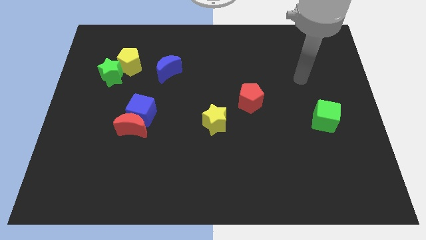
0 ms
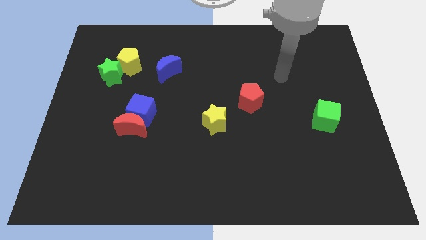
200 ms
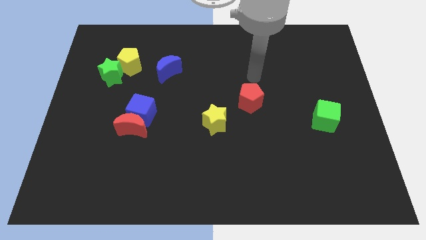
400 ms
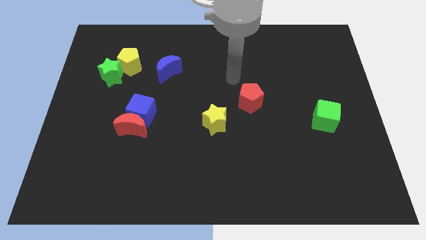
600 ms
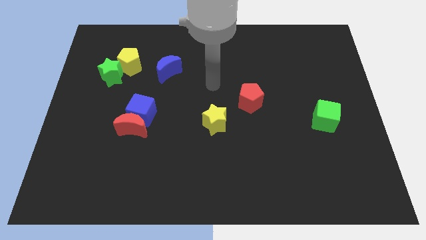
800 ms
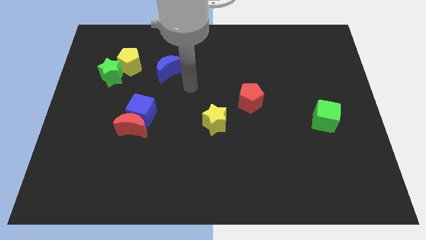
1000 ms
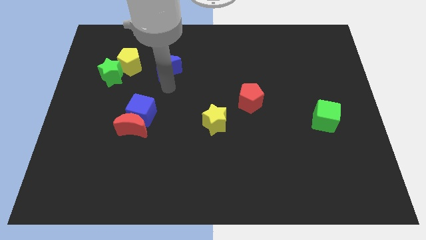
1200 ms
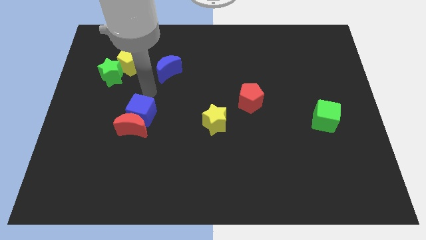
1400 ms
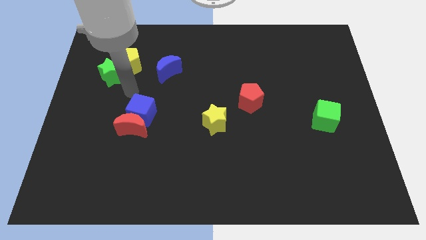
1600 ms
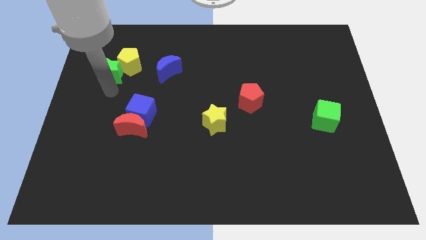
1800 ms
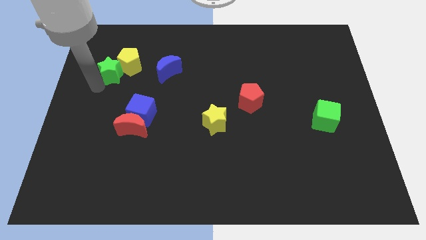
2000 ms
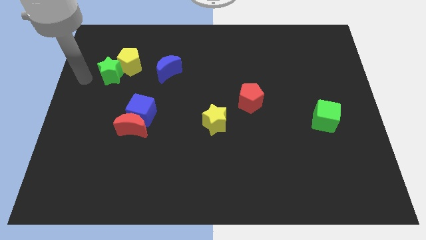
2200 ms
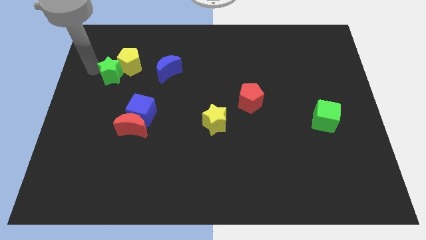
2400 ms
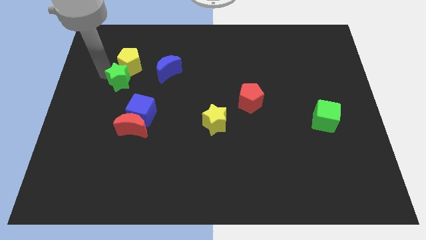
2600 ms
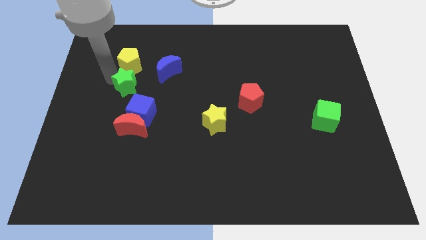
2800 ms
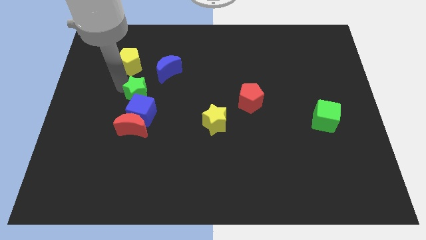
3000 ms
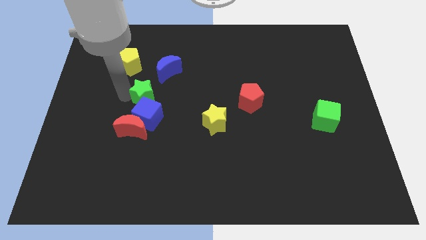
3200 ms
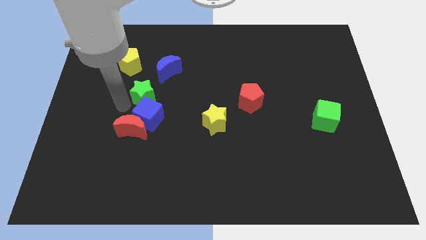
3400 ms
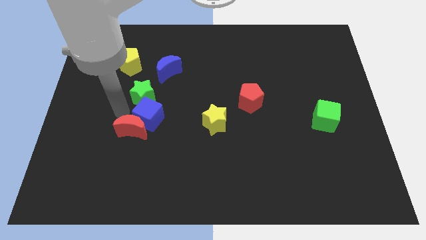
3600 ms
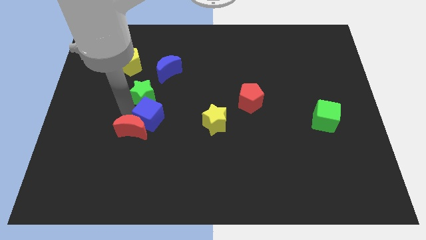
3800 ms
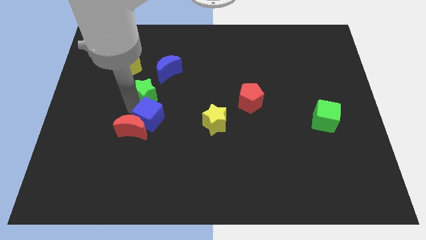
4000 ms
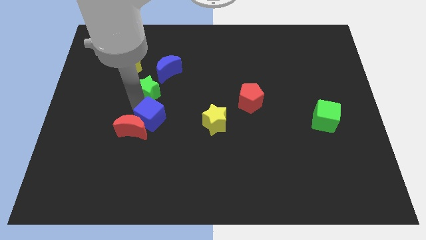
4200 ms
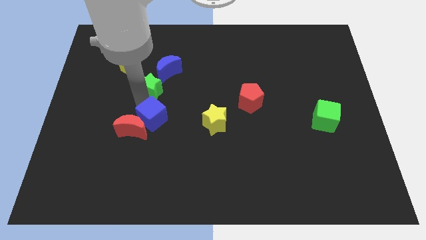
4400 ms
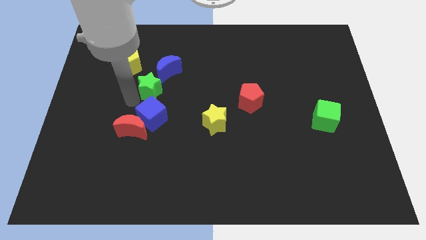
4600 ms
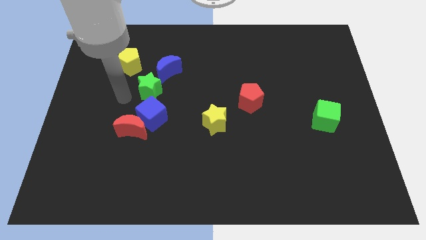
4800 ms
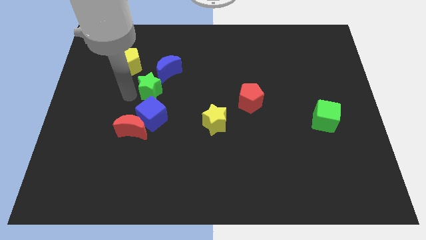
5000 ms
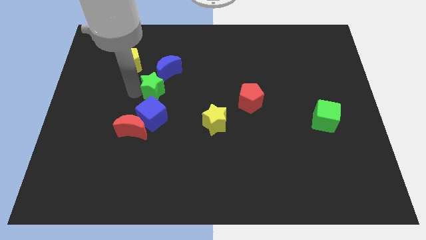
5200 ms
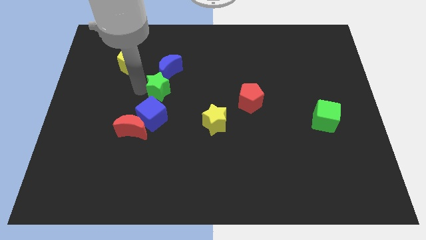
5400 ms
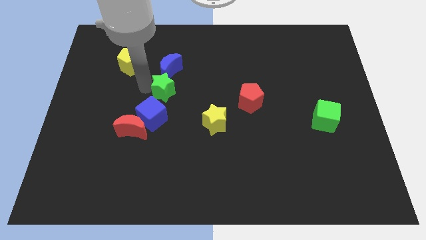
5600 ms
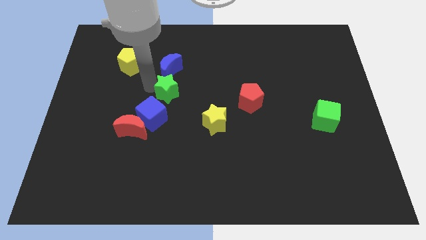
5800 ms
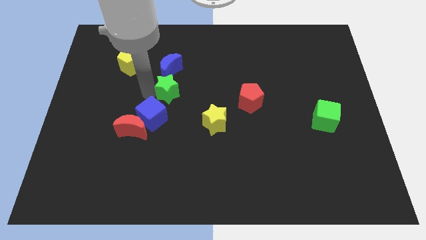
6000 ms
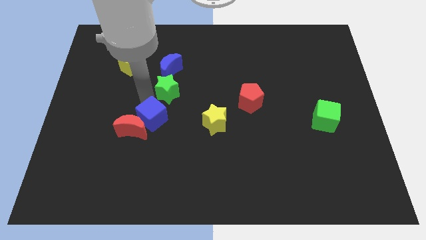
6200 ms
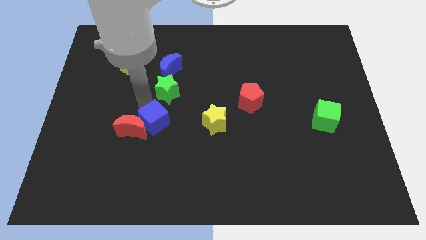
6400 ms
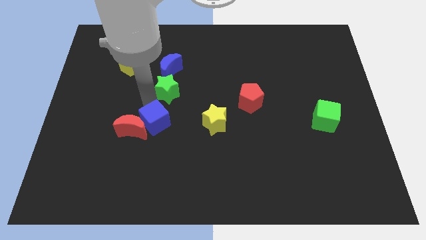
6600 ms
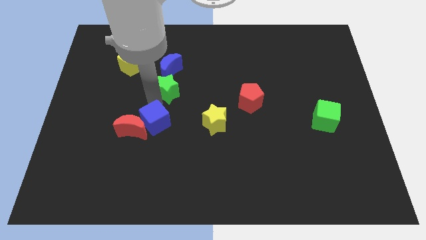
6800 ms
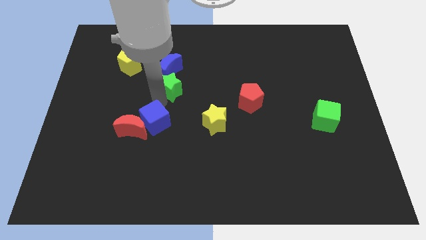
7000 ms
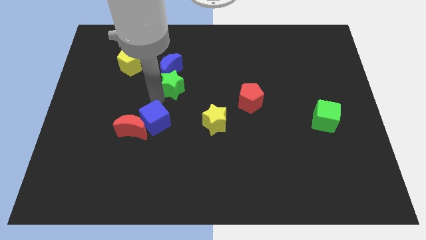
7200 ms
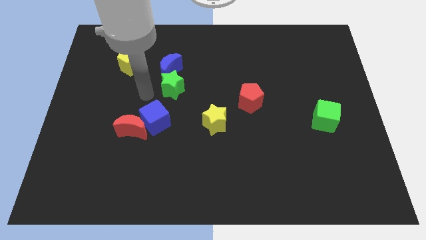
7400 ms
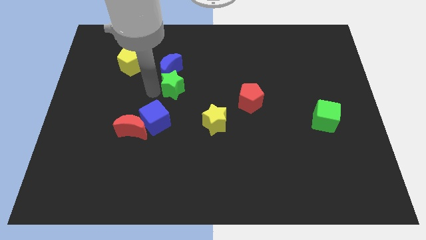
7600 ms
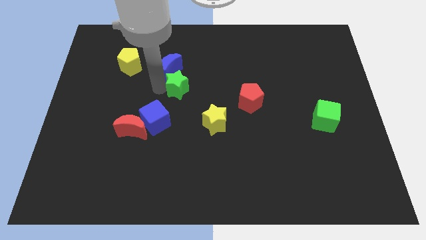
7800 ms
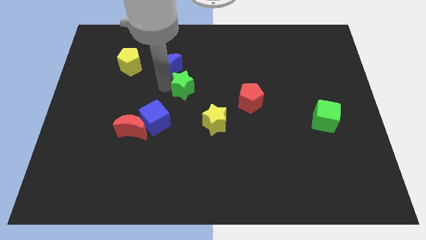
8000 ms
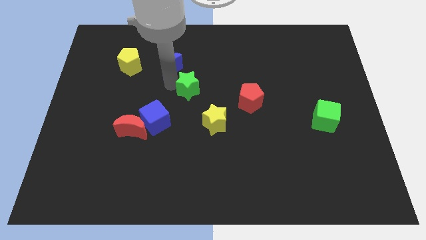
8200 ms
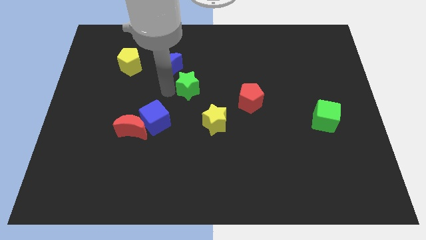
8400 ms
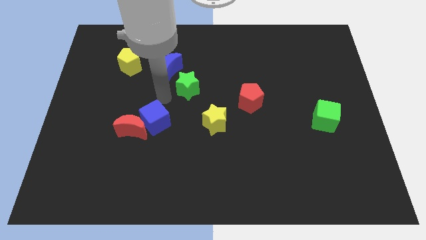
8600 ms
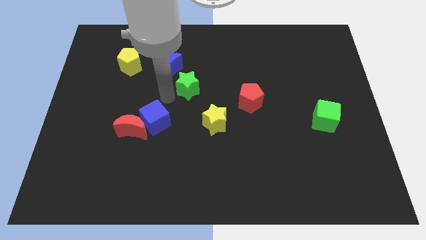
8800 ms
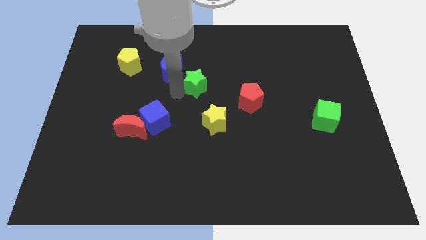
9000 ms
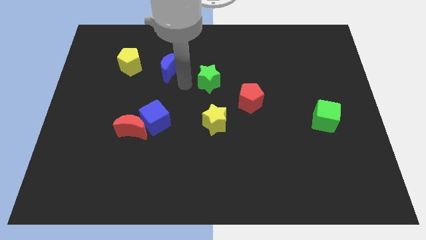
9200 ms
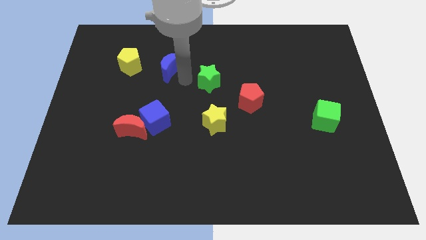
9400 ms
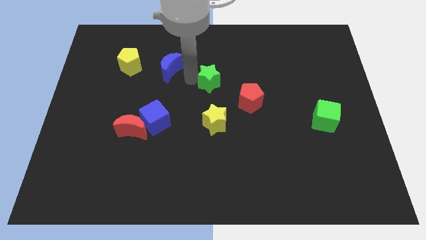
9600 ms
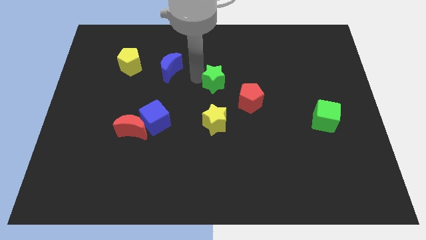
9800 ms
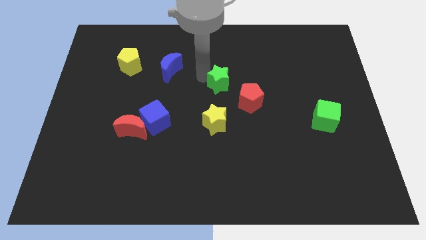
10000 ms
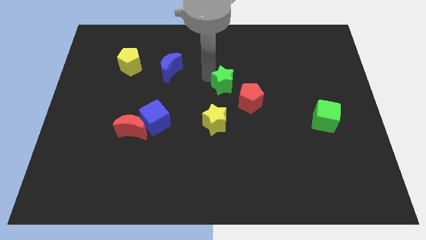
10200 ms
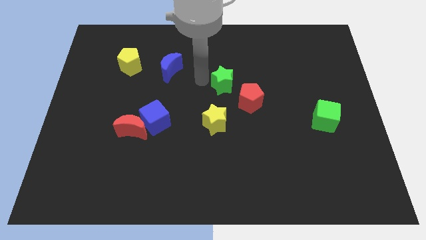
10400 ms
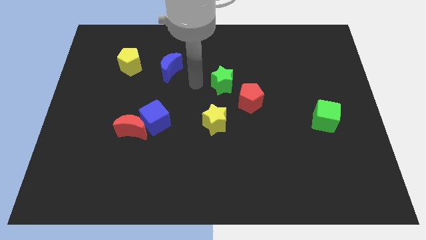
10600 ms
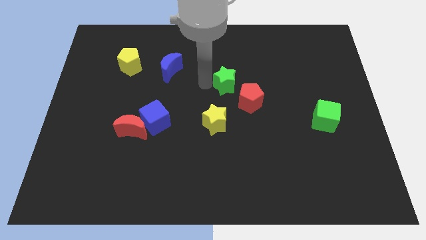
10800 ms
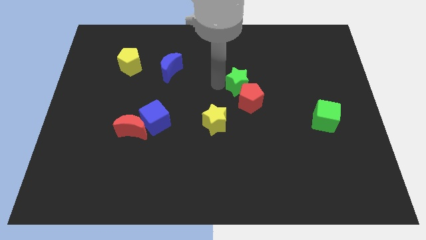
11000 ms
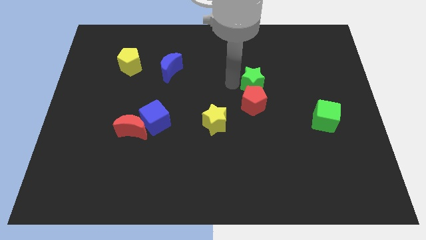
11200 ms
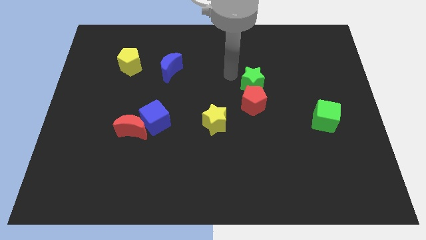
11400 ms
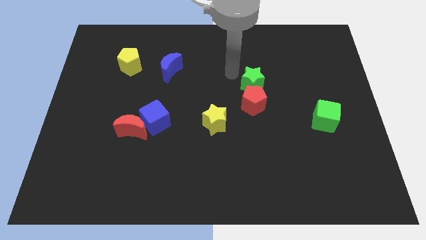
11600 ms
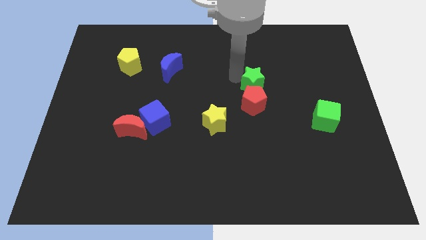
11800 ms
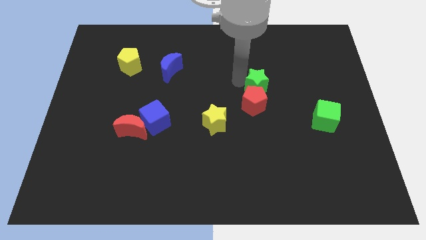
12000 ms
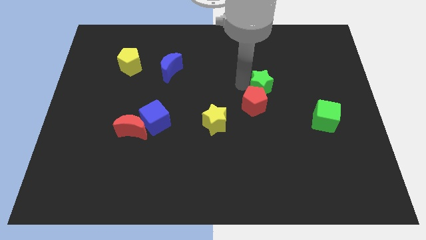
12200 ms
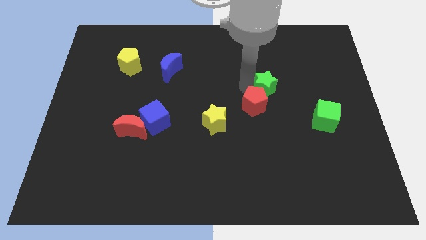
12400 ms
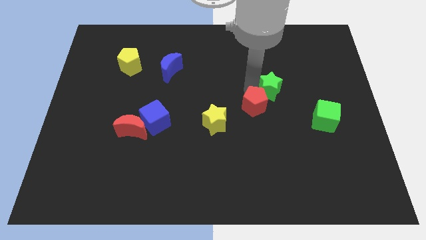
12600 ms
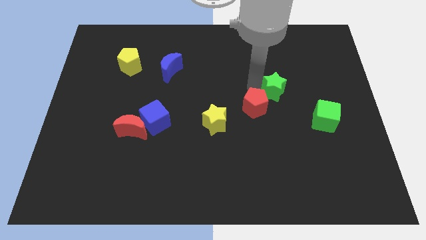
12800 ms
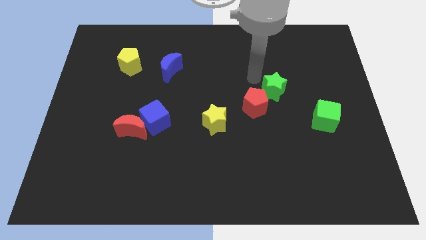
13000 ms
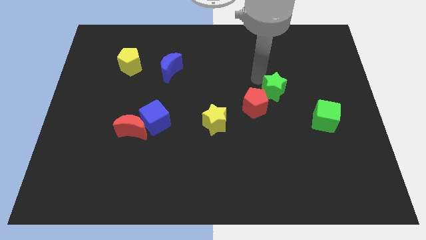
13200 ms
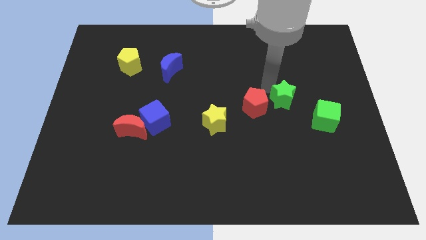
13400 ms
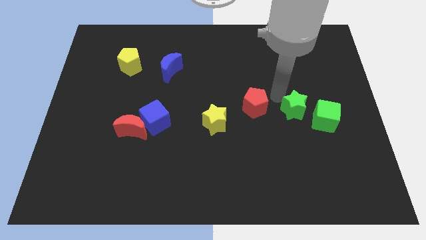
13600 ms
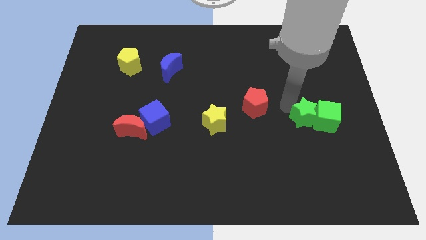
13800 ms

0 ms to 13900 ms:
put the green star towards the green cube

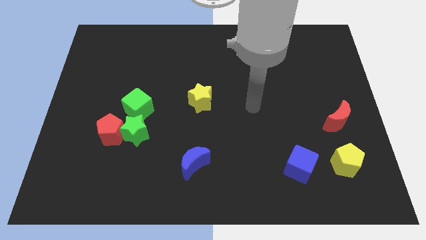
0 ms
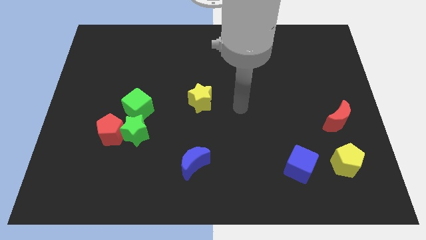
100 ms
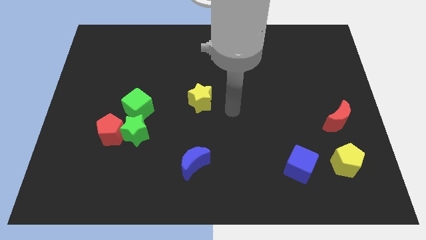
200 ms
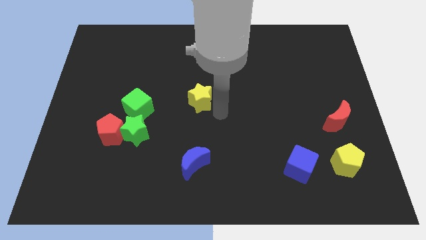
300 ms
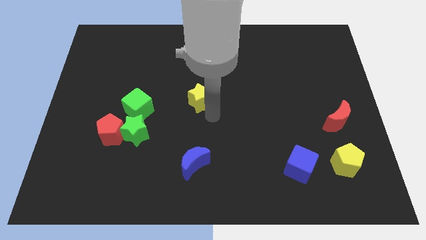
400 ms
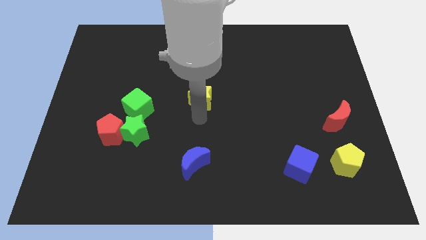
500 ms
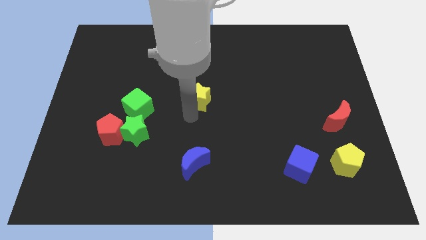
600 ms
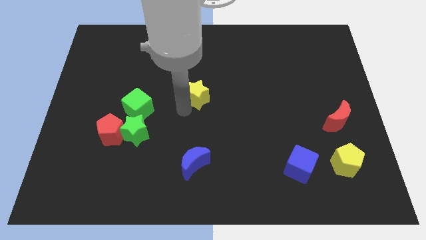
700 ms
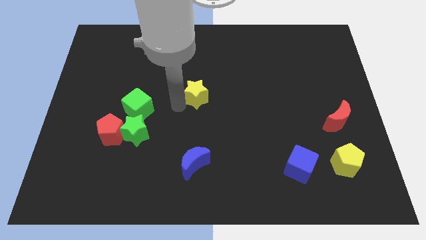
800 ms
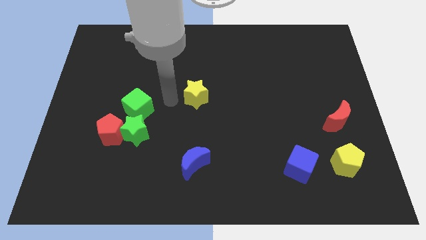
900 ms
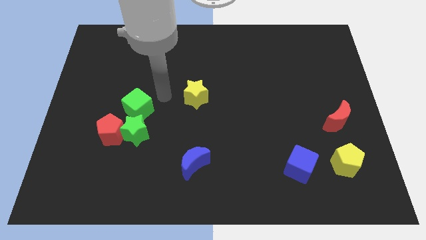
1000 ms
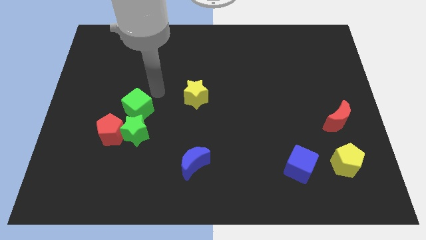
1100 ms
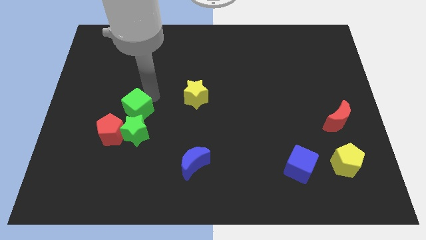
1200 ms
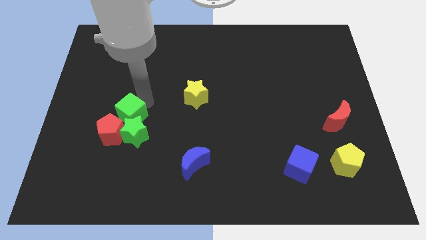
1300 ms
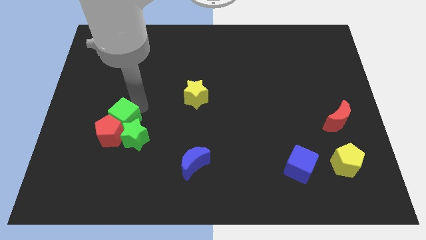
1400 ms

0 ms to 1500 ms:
move the green cube next to the red pentagon
